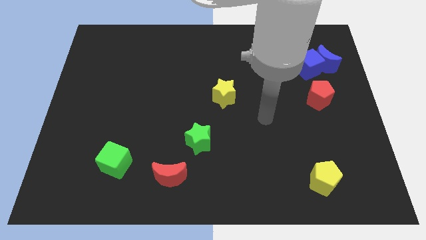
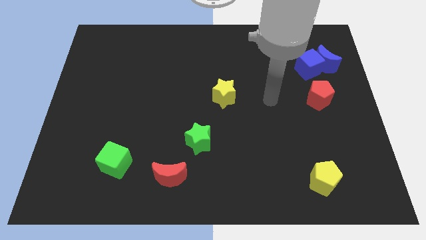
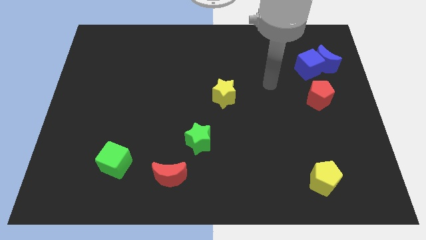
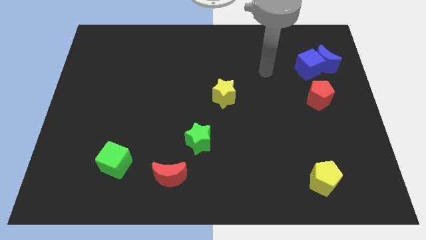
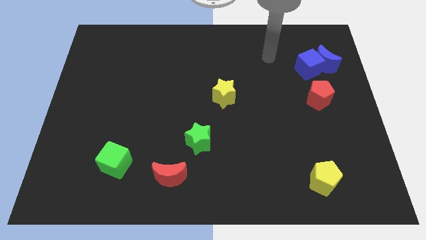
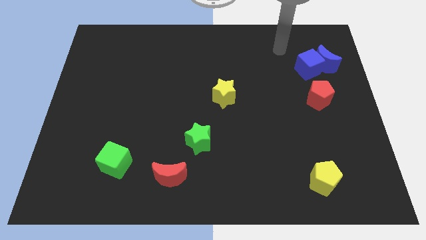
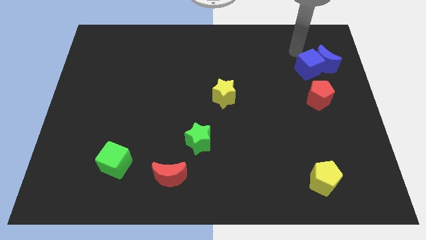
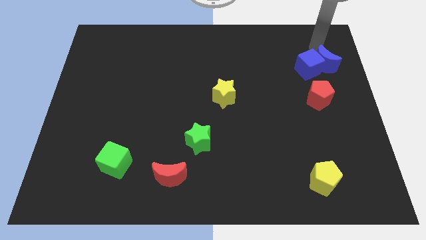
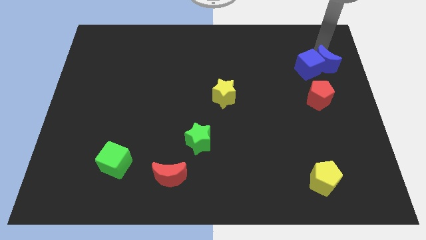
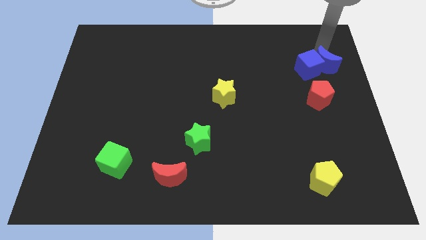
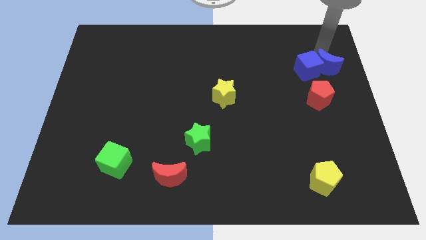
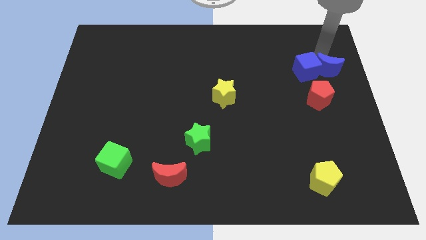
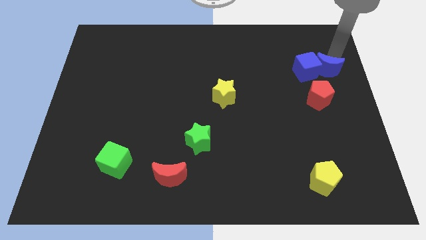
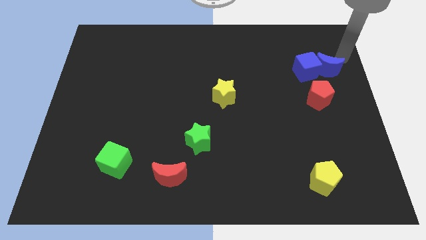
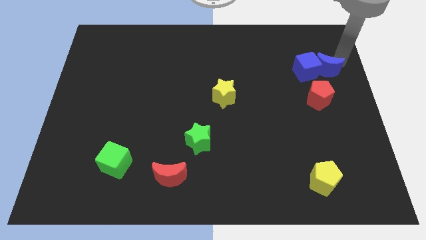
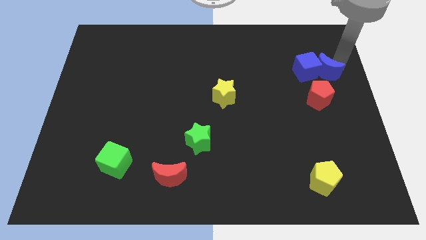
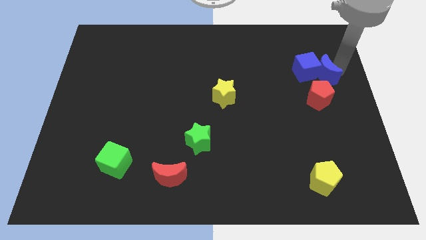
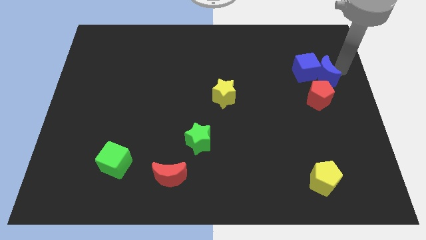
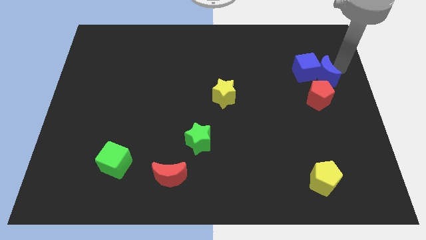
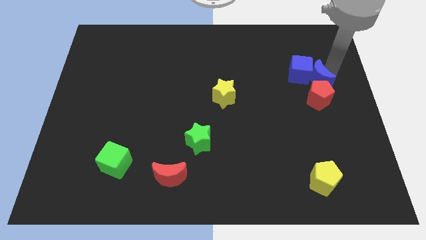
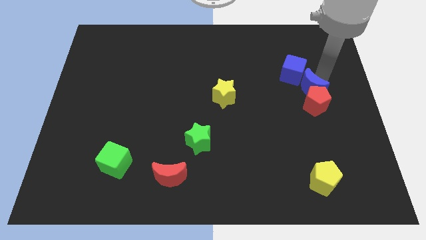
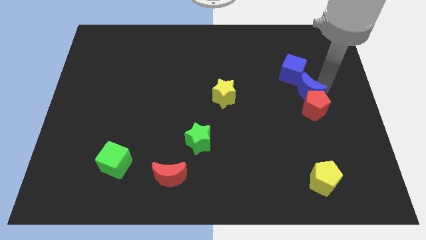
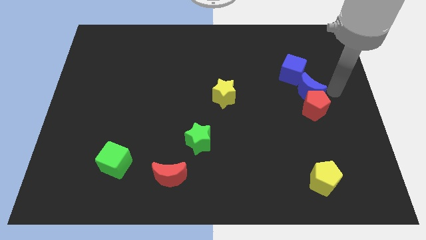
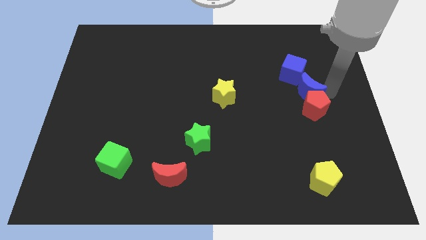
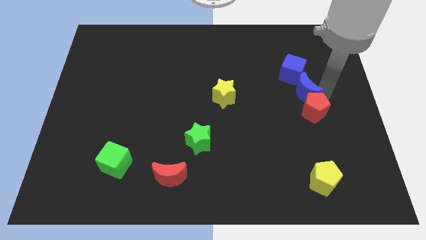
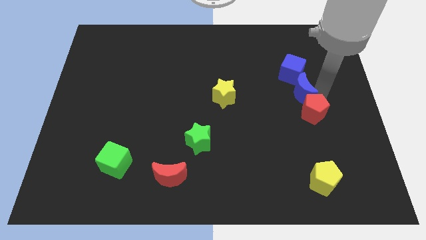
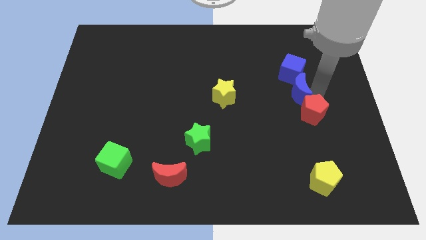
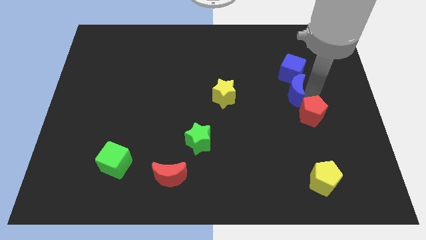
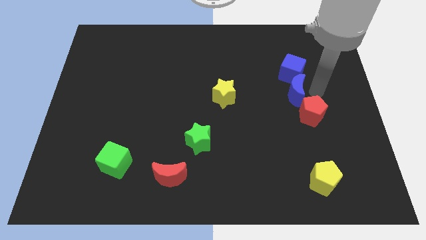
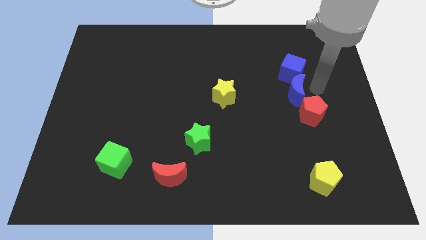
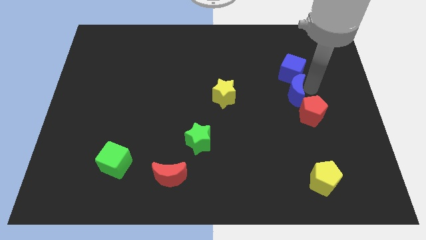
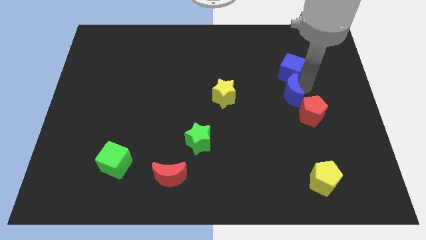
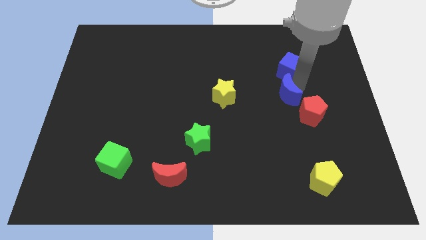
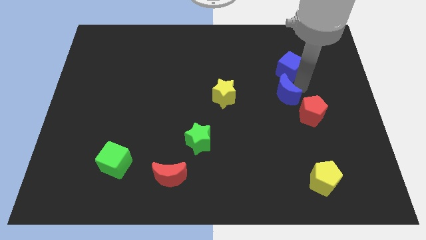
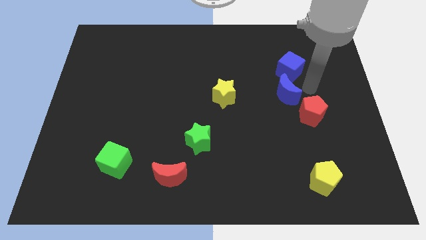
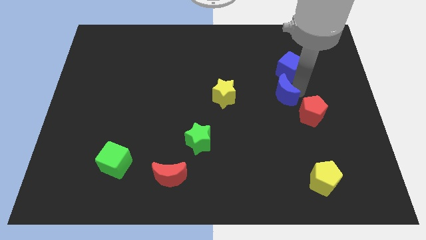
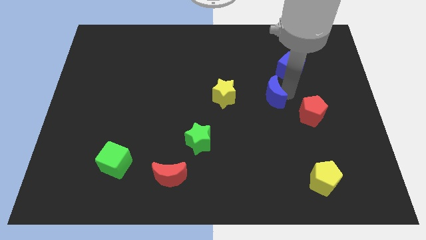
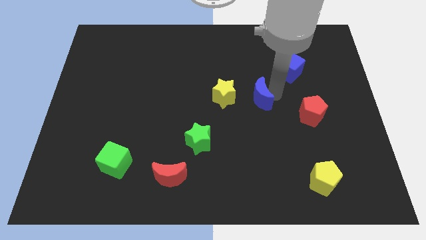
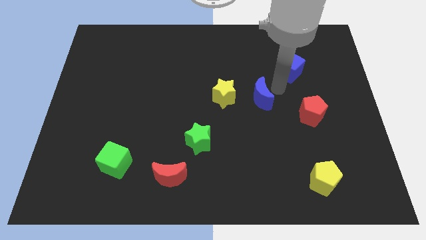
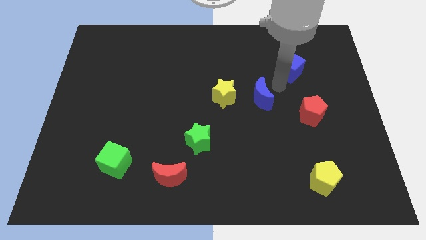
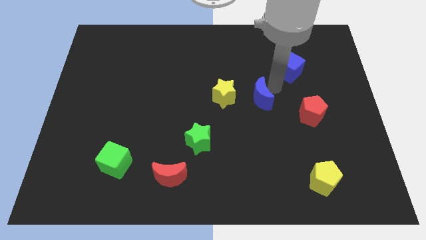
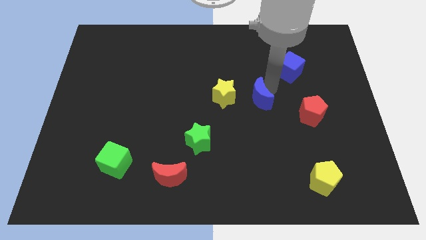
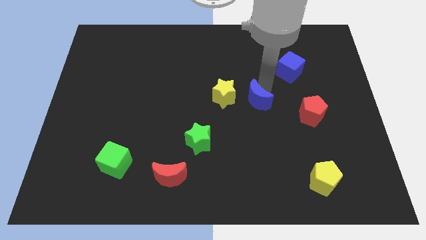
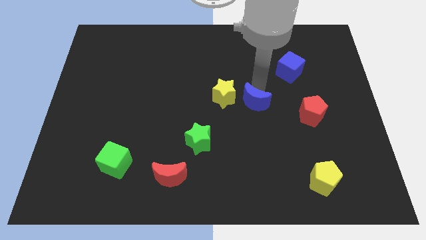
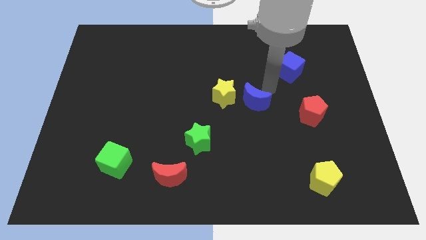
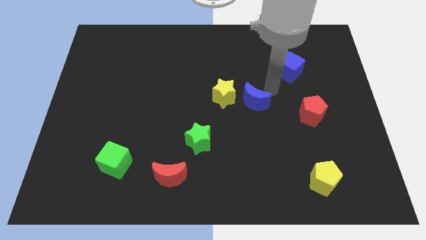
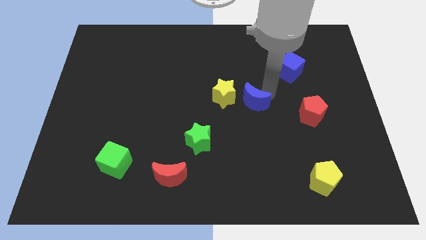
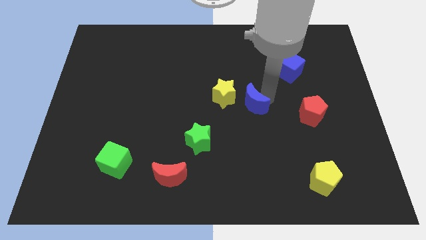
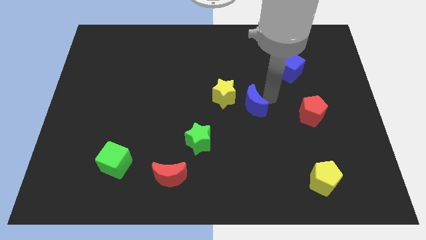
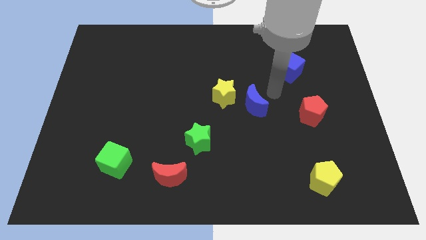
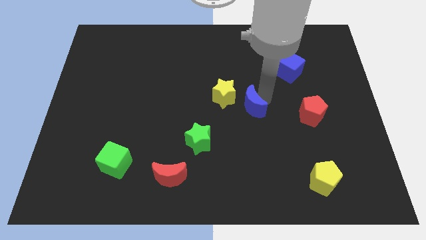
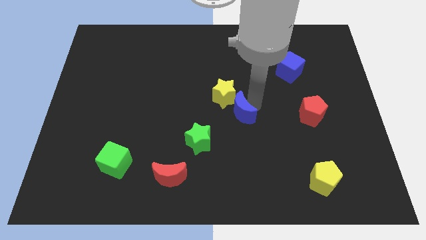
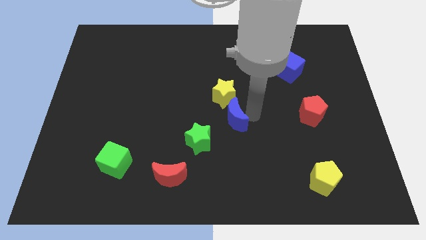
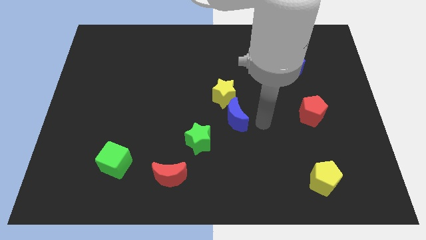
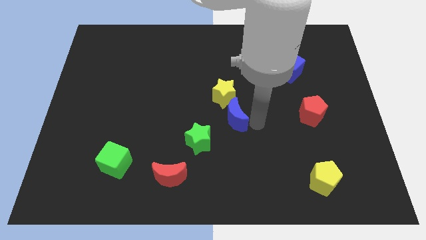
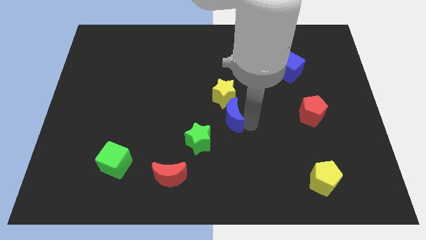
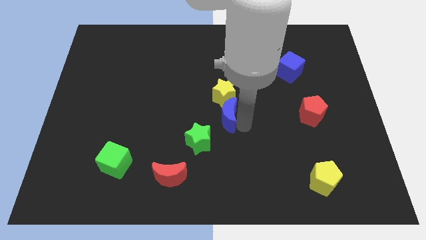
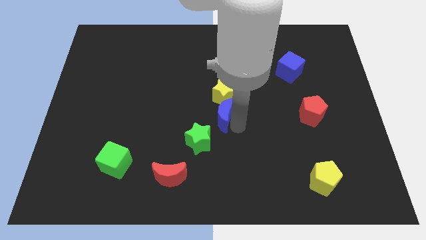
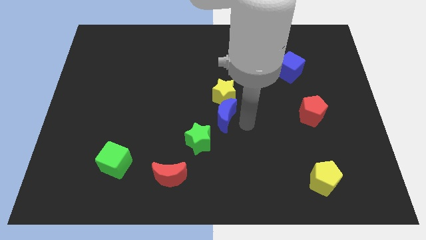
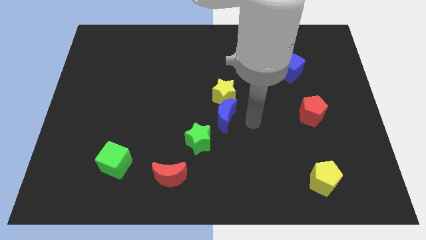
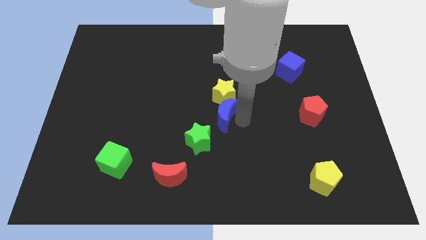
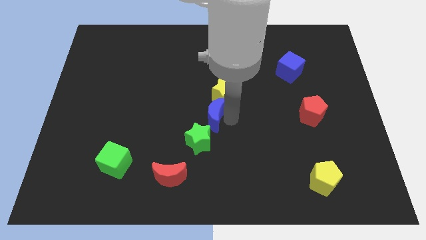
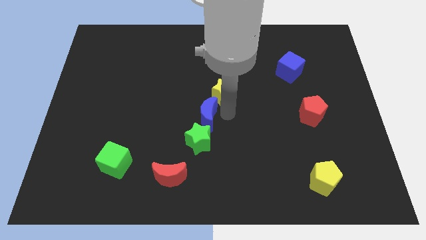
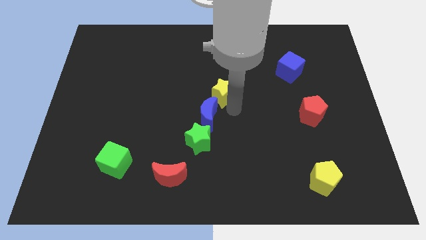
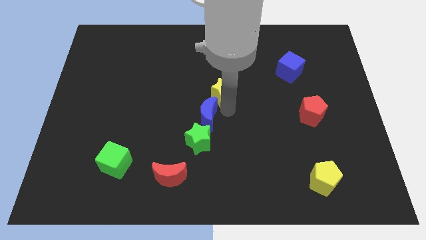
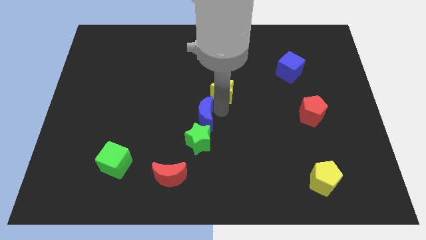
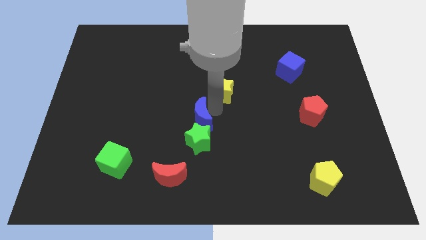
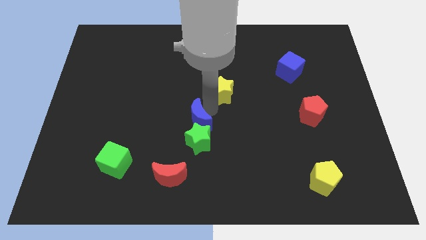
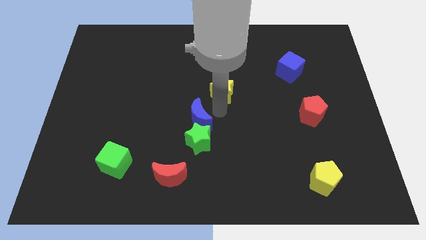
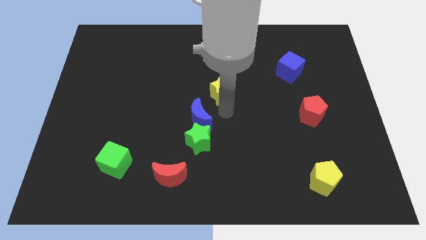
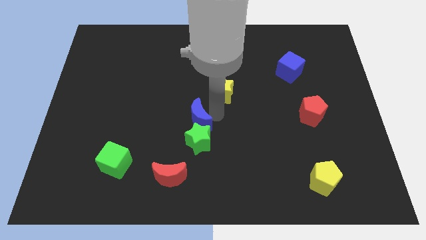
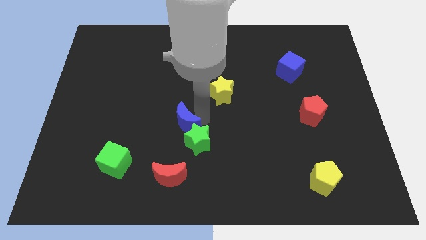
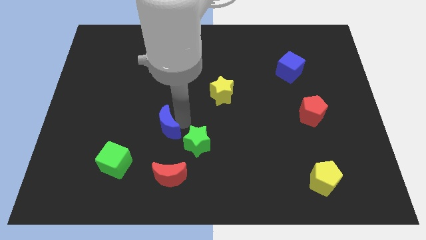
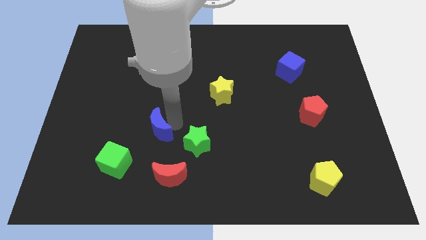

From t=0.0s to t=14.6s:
push the blue moon diagonally up and to the right of the green cube
